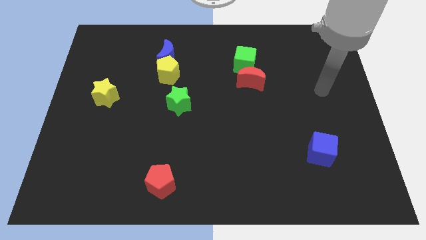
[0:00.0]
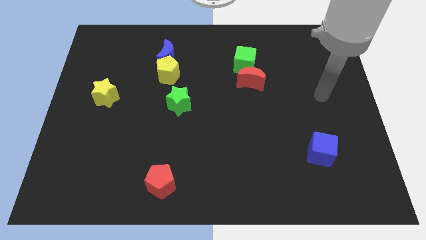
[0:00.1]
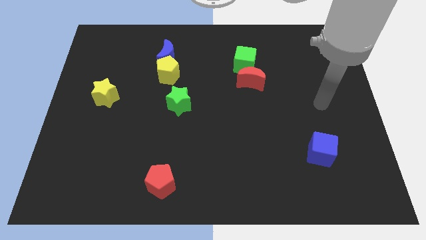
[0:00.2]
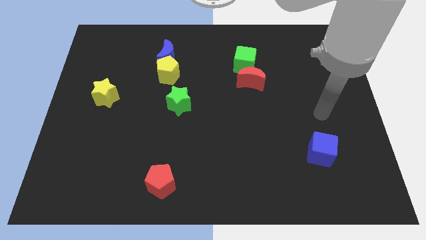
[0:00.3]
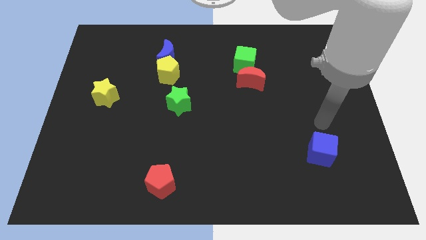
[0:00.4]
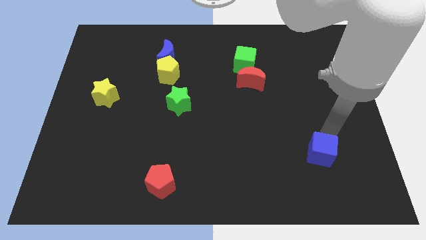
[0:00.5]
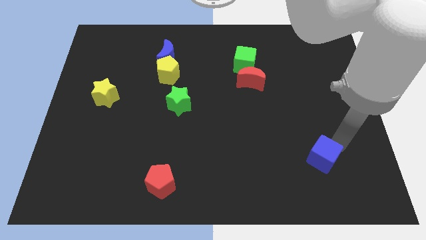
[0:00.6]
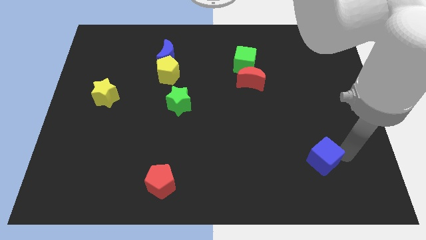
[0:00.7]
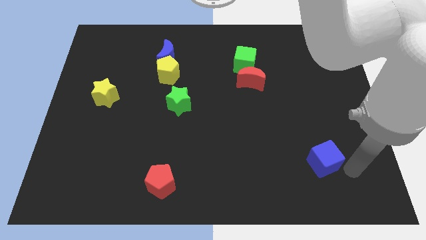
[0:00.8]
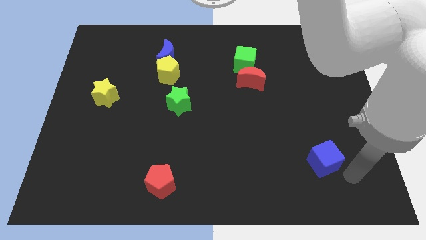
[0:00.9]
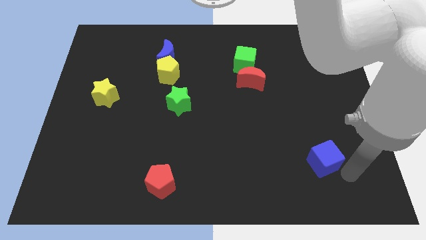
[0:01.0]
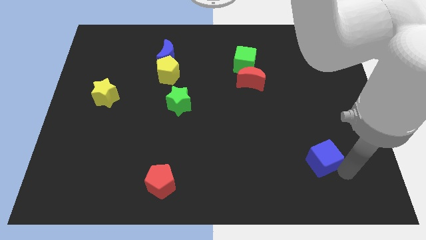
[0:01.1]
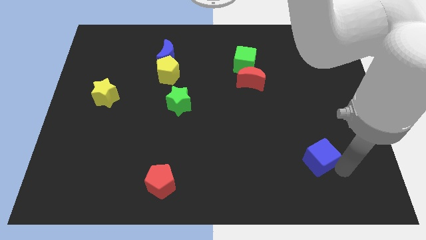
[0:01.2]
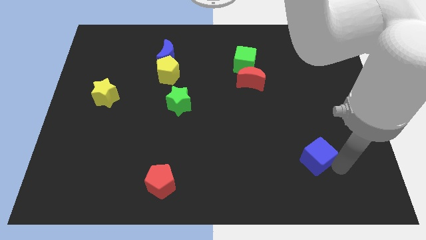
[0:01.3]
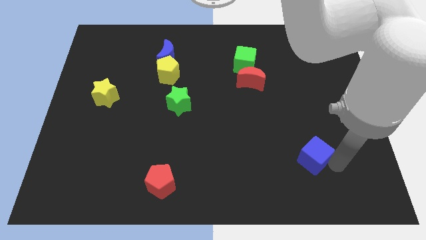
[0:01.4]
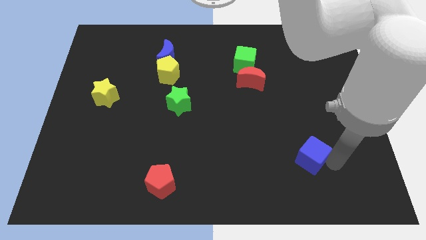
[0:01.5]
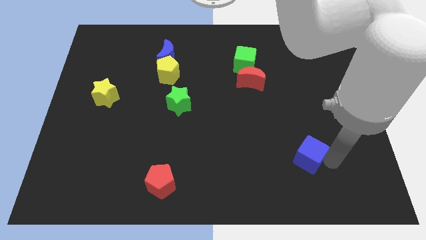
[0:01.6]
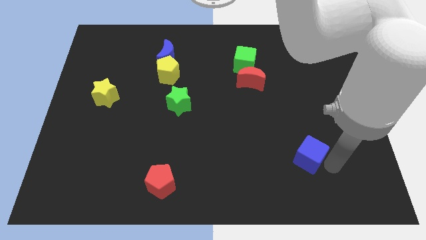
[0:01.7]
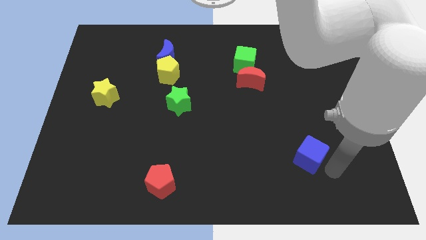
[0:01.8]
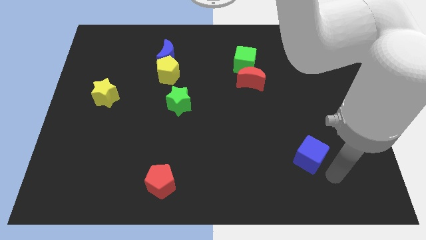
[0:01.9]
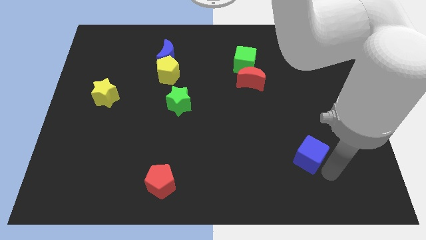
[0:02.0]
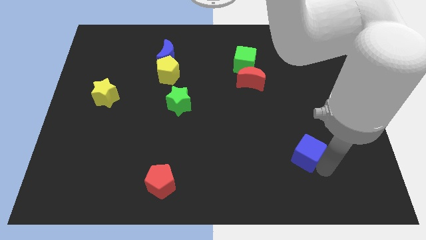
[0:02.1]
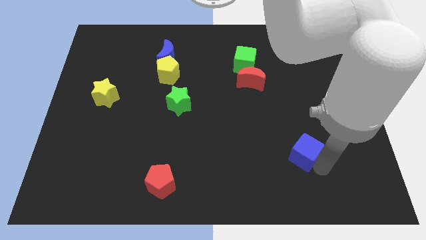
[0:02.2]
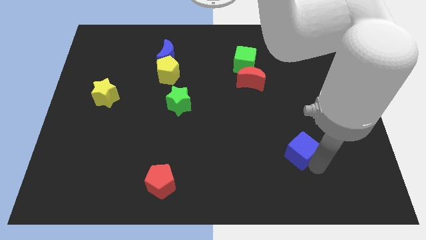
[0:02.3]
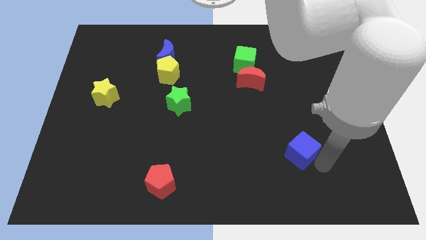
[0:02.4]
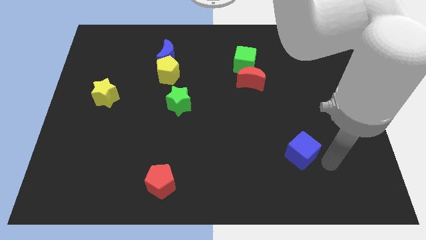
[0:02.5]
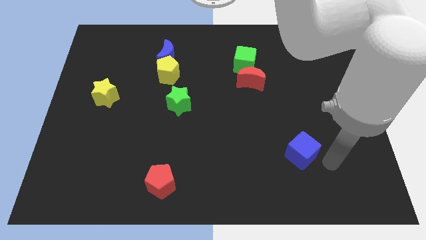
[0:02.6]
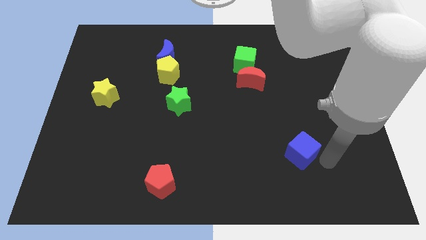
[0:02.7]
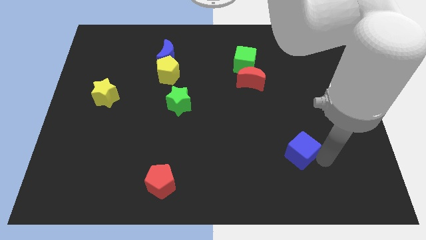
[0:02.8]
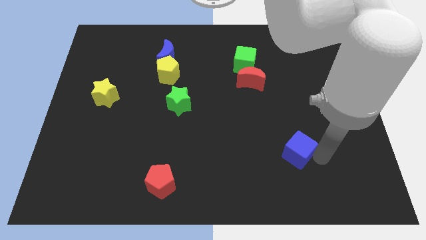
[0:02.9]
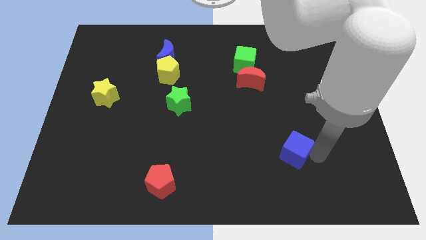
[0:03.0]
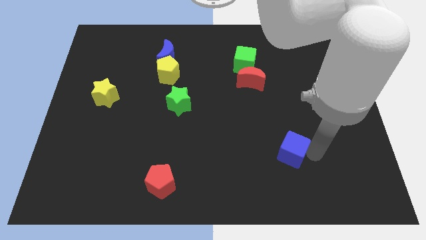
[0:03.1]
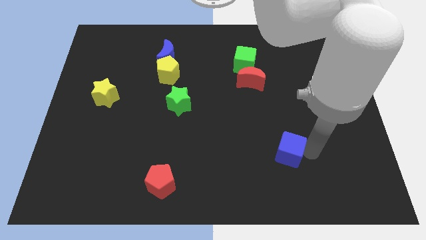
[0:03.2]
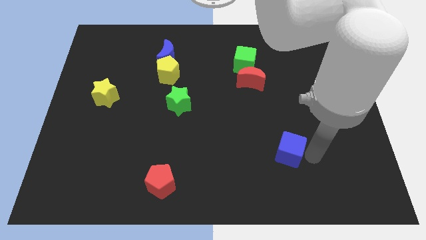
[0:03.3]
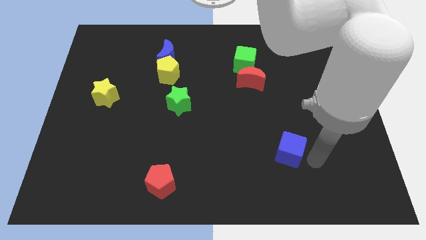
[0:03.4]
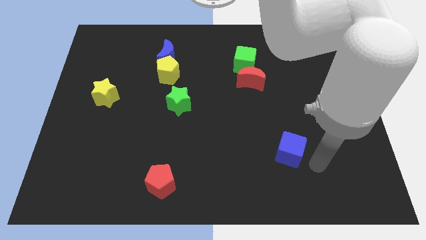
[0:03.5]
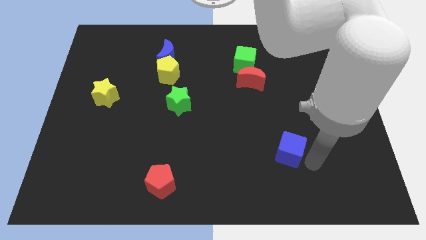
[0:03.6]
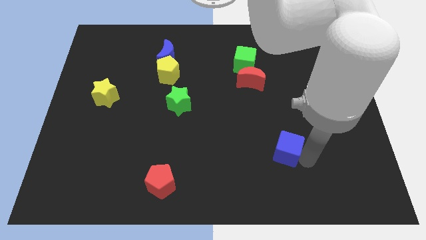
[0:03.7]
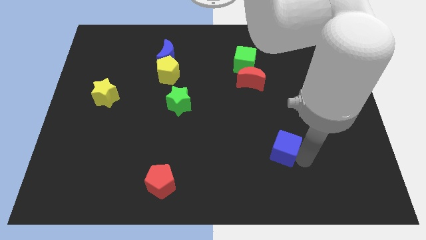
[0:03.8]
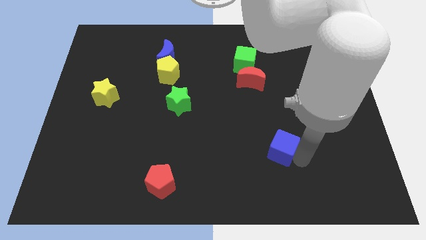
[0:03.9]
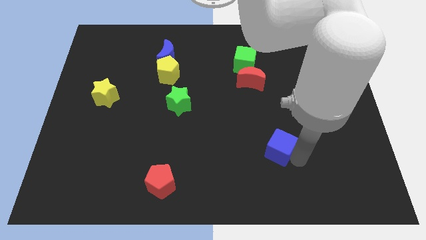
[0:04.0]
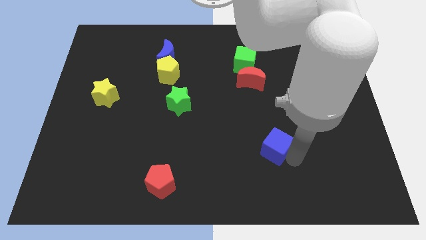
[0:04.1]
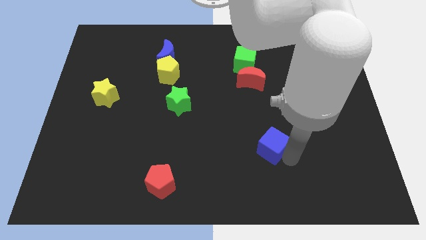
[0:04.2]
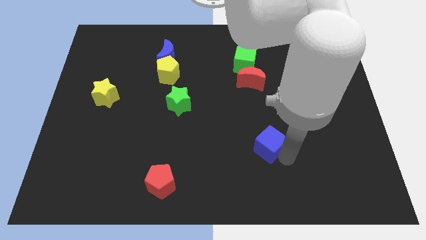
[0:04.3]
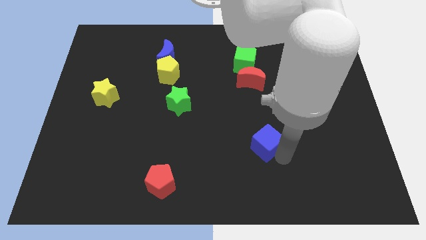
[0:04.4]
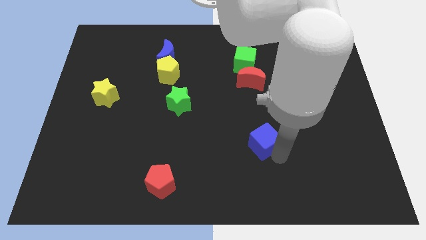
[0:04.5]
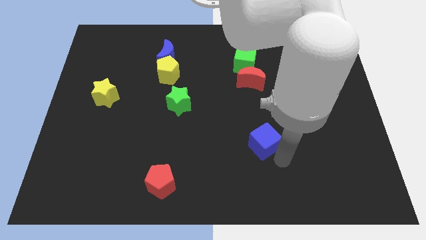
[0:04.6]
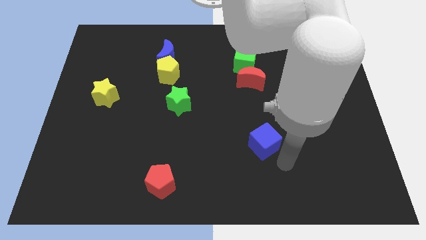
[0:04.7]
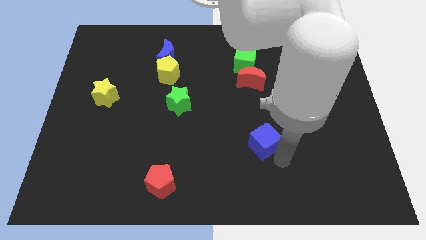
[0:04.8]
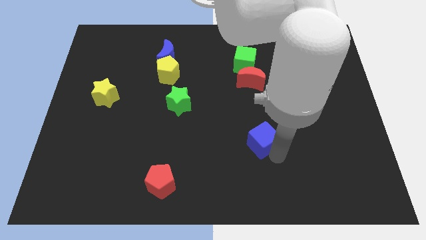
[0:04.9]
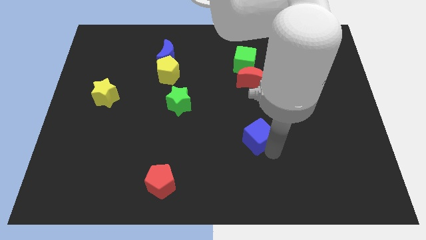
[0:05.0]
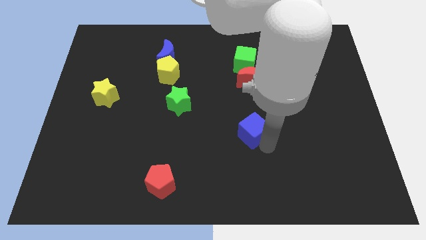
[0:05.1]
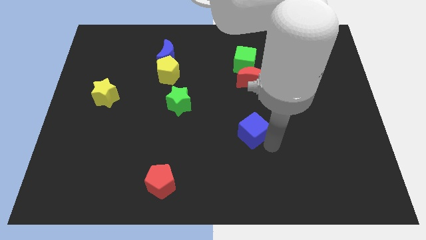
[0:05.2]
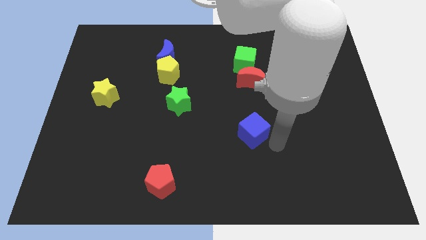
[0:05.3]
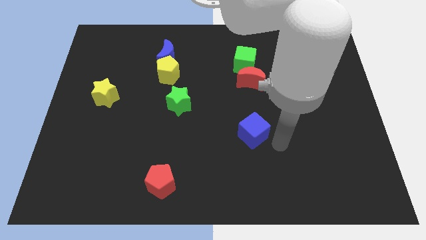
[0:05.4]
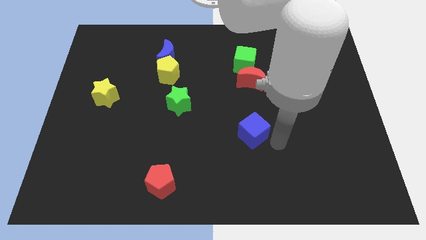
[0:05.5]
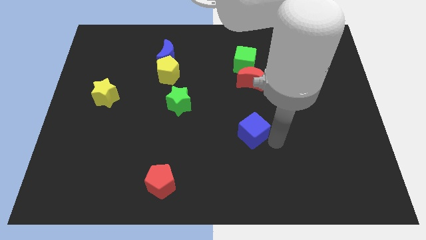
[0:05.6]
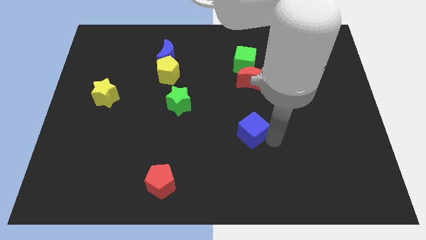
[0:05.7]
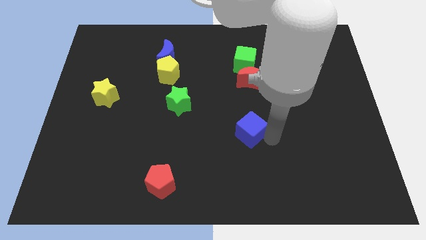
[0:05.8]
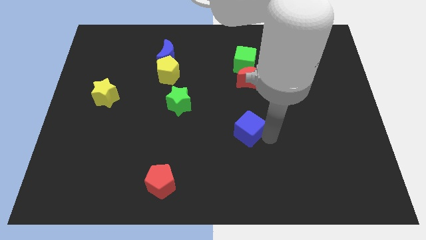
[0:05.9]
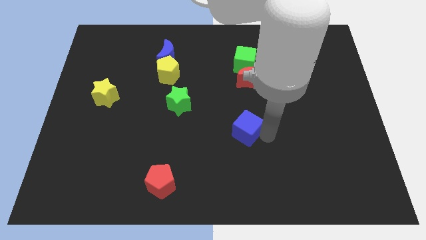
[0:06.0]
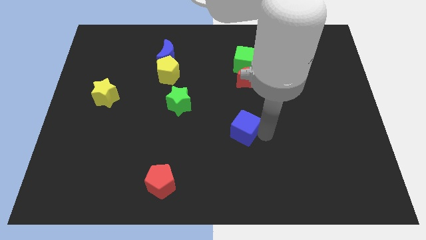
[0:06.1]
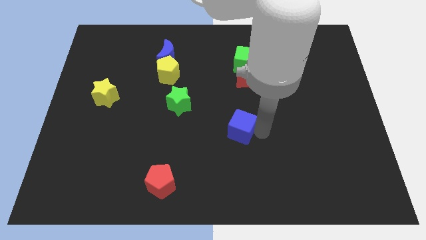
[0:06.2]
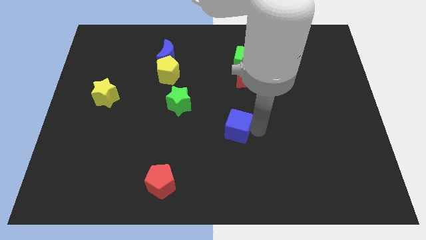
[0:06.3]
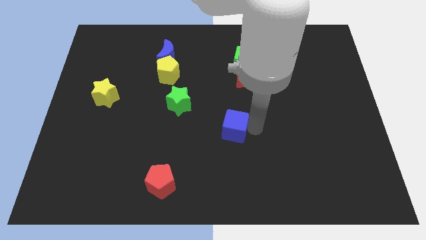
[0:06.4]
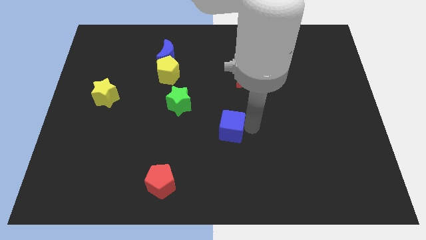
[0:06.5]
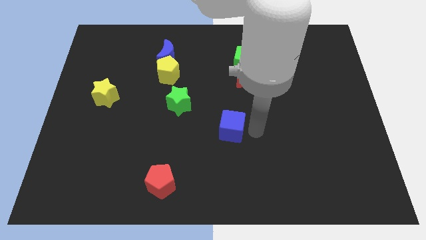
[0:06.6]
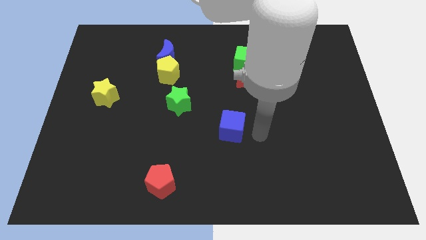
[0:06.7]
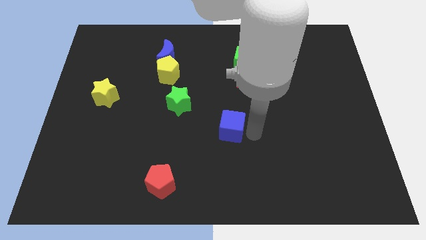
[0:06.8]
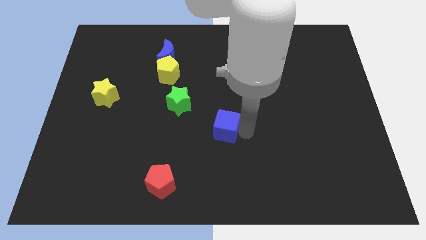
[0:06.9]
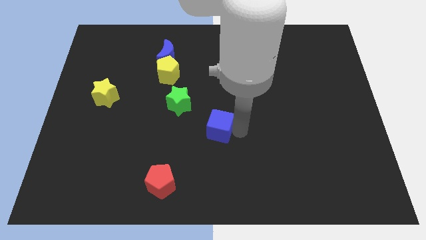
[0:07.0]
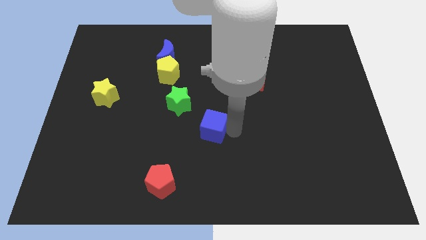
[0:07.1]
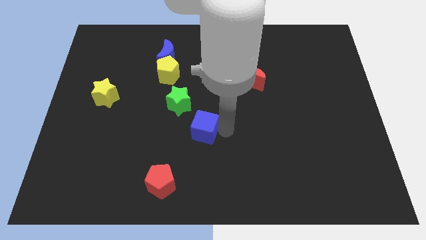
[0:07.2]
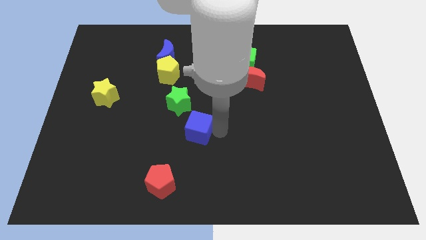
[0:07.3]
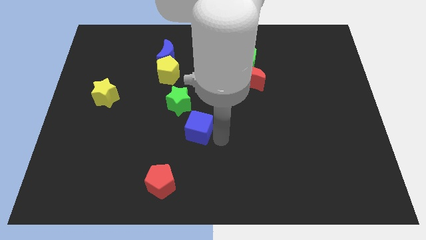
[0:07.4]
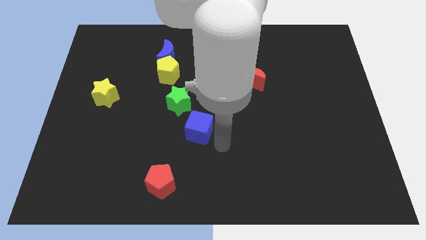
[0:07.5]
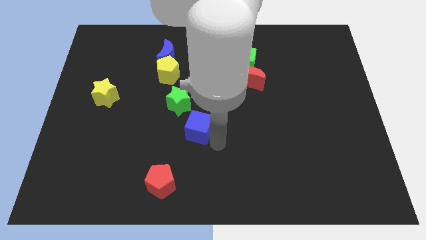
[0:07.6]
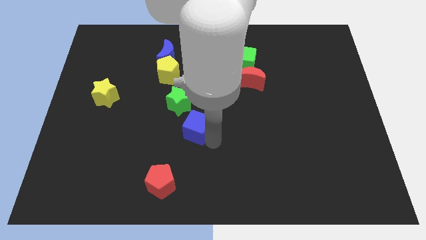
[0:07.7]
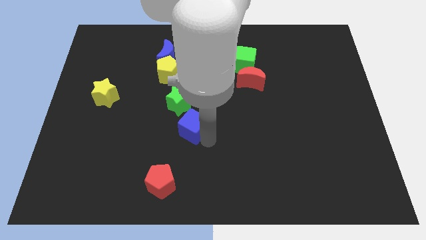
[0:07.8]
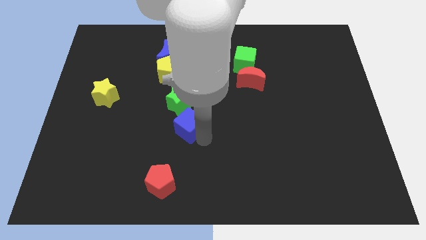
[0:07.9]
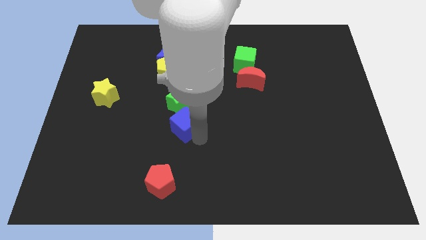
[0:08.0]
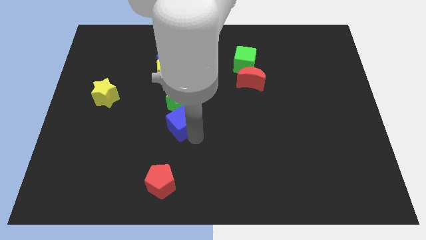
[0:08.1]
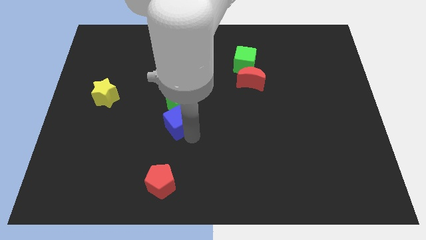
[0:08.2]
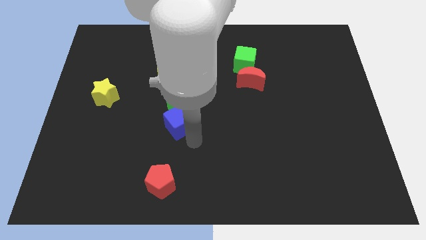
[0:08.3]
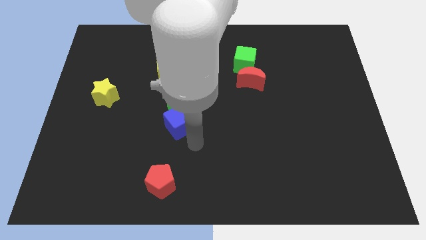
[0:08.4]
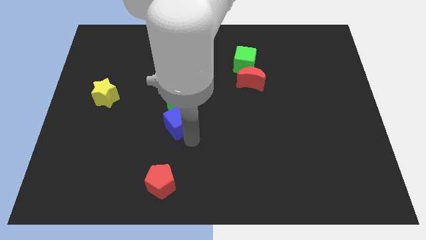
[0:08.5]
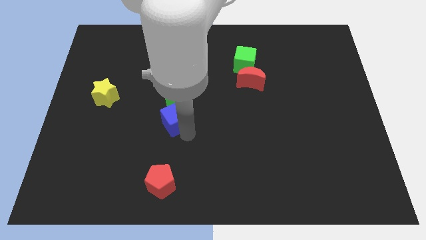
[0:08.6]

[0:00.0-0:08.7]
move the blue cube to the bottom side of the yellow pentagon

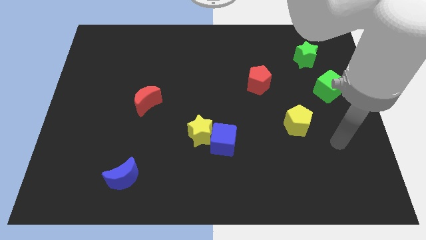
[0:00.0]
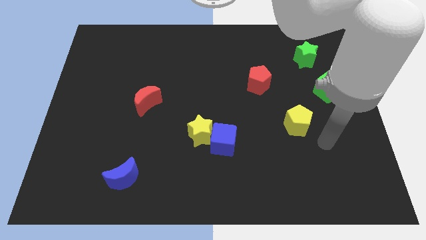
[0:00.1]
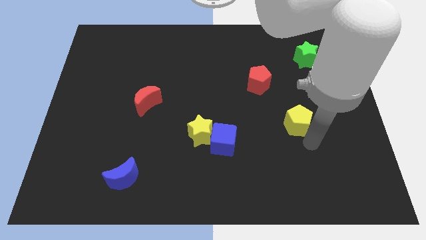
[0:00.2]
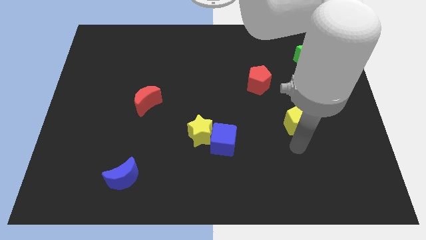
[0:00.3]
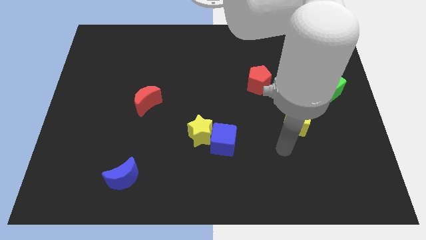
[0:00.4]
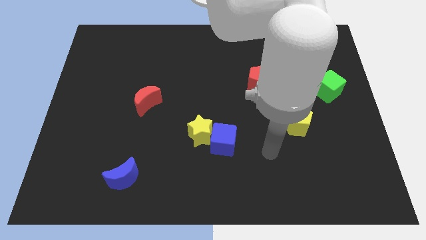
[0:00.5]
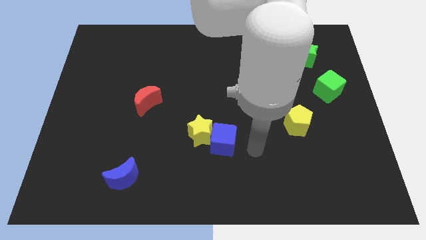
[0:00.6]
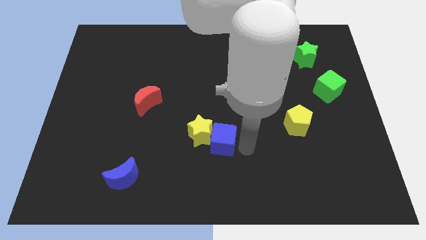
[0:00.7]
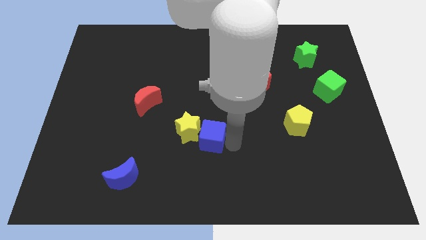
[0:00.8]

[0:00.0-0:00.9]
push the yellow star diagonally down and to the right of the red moon
